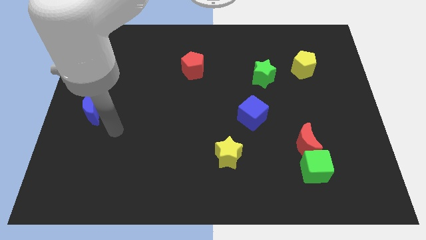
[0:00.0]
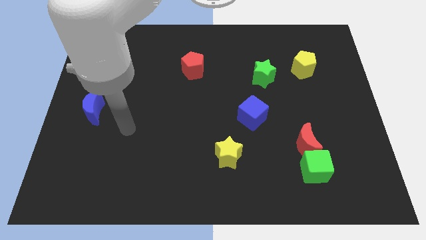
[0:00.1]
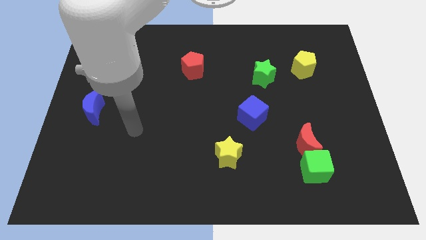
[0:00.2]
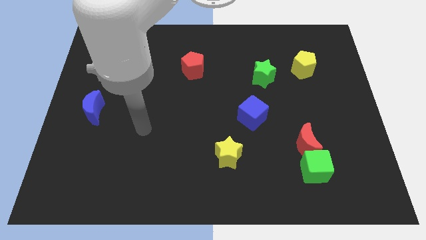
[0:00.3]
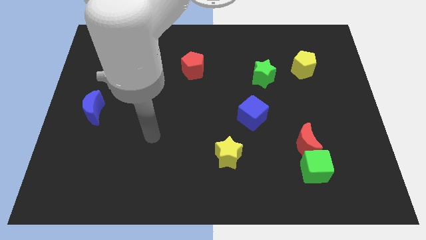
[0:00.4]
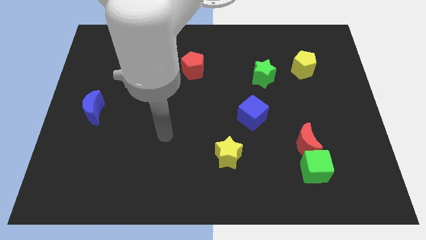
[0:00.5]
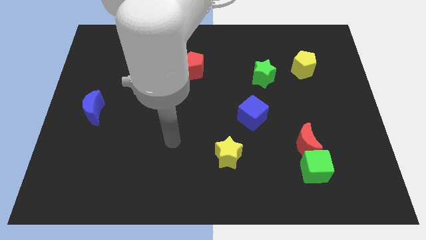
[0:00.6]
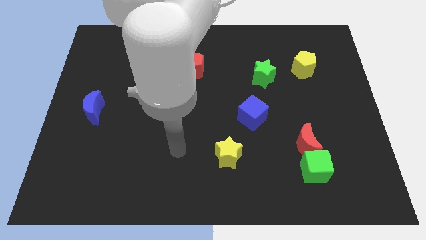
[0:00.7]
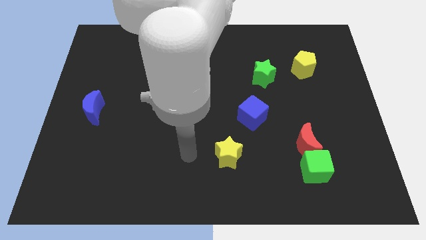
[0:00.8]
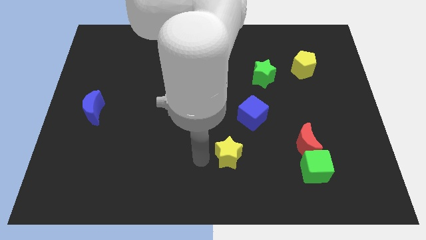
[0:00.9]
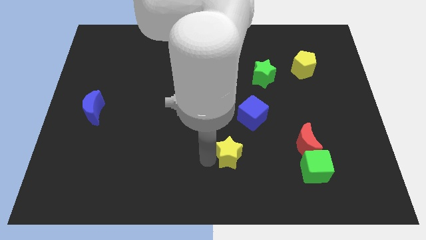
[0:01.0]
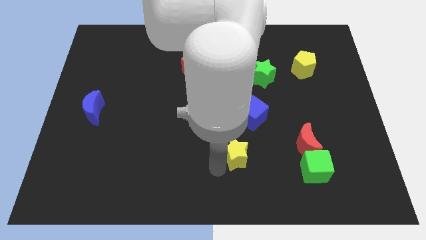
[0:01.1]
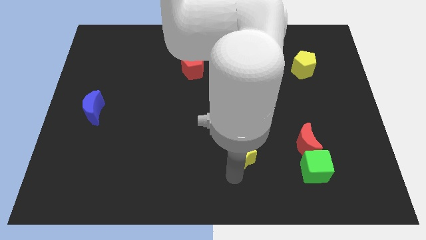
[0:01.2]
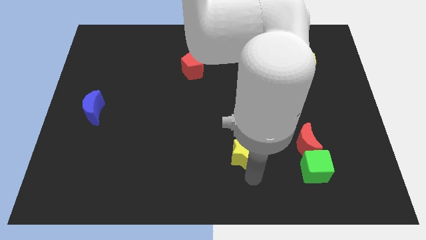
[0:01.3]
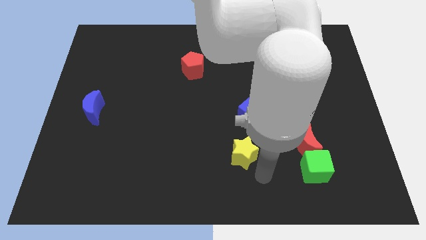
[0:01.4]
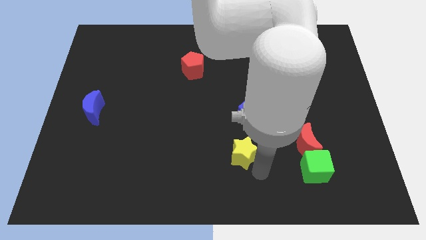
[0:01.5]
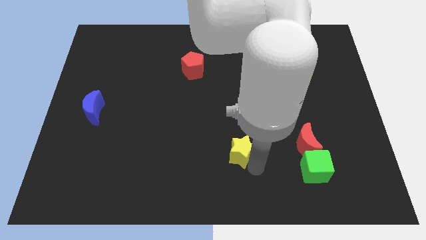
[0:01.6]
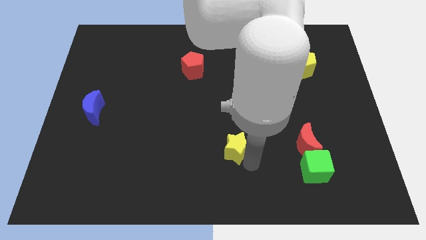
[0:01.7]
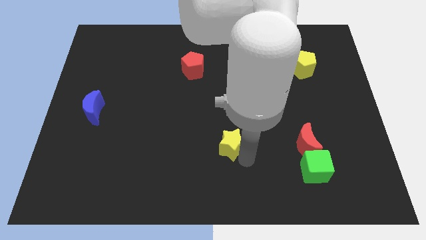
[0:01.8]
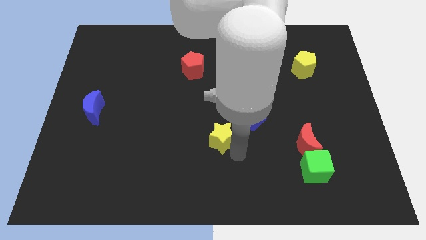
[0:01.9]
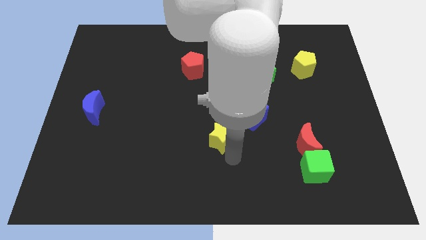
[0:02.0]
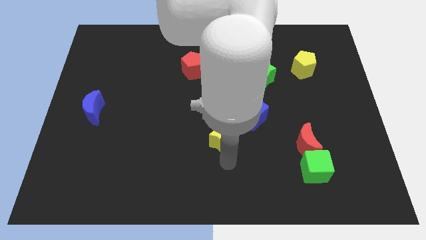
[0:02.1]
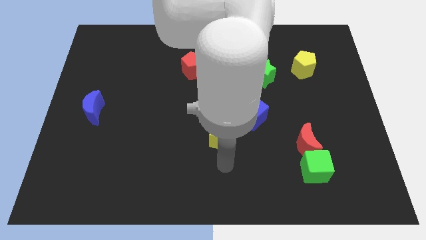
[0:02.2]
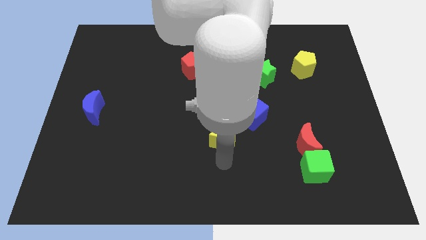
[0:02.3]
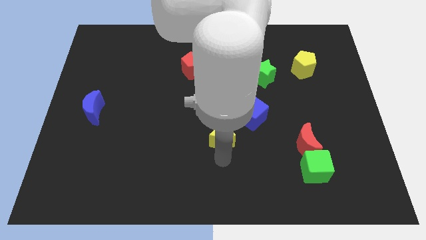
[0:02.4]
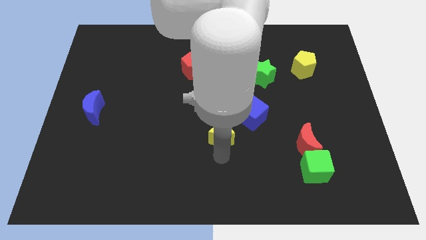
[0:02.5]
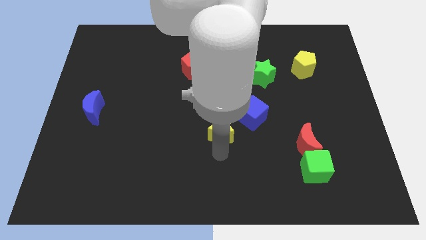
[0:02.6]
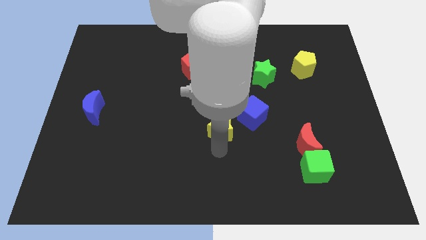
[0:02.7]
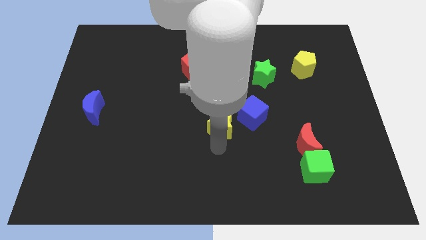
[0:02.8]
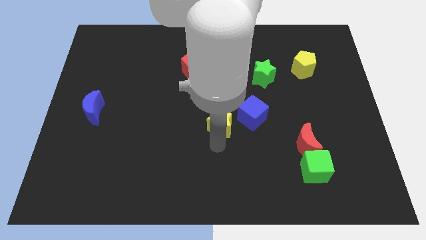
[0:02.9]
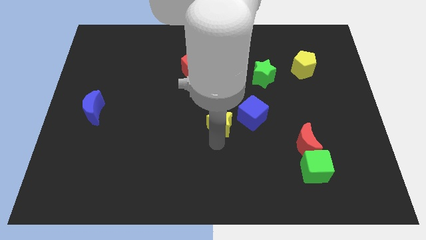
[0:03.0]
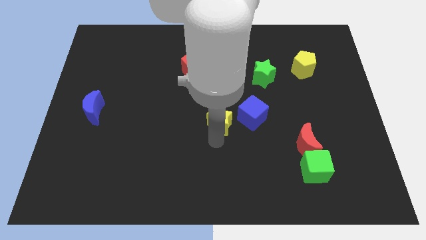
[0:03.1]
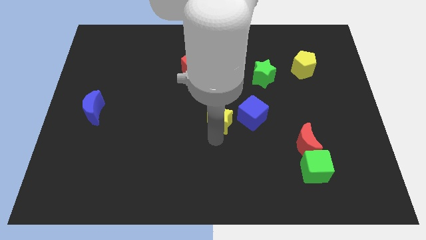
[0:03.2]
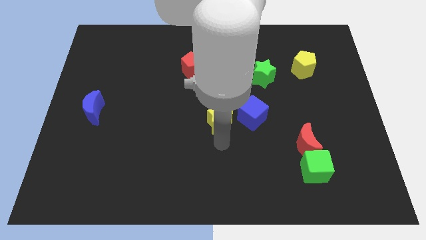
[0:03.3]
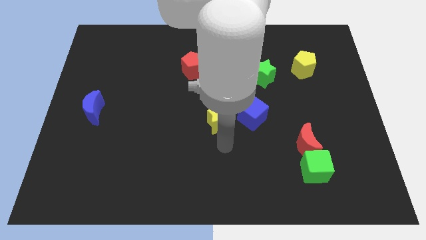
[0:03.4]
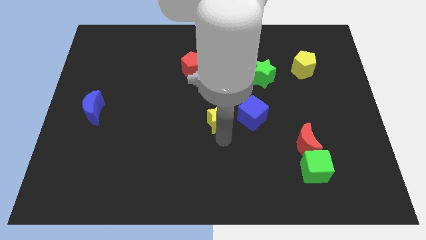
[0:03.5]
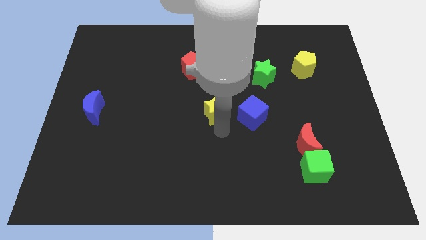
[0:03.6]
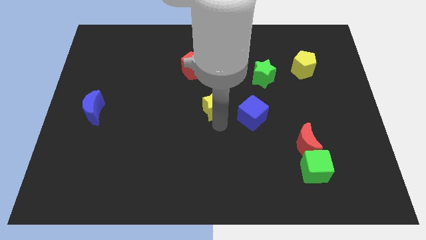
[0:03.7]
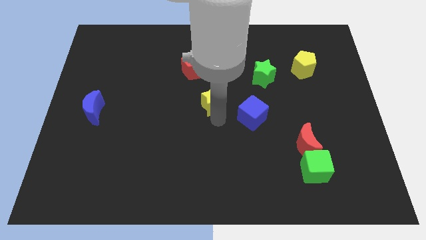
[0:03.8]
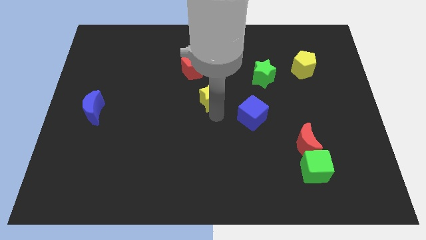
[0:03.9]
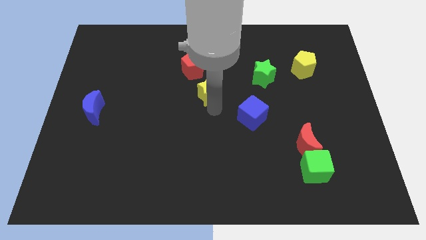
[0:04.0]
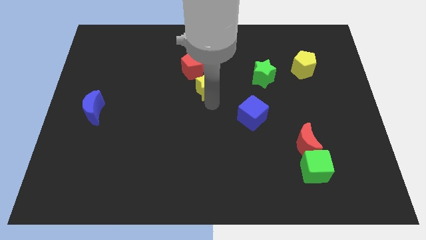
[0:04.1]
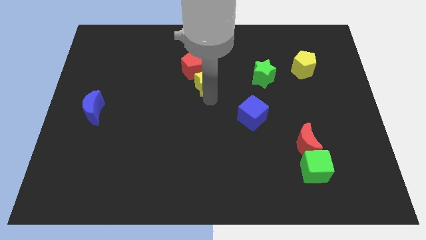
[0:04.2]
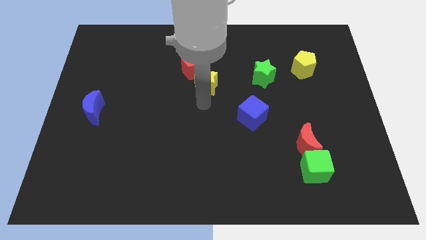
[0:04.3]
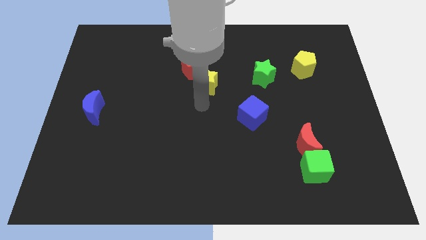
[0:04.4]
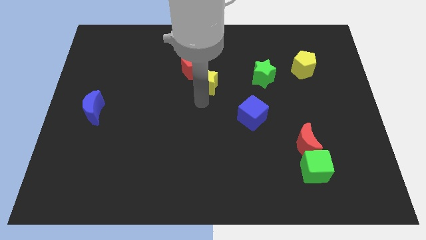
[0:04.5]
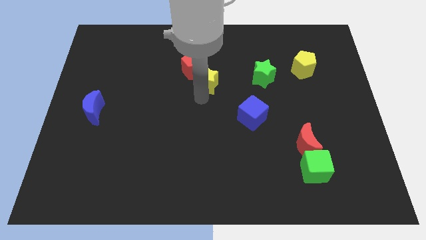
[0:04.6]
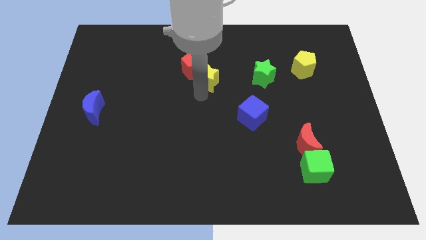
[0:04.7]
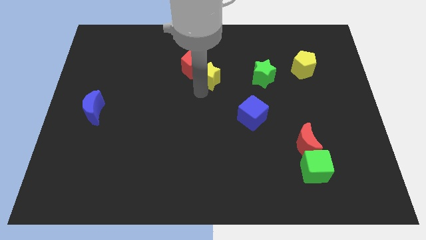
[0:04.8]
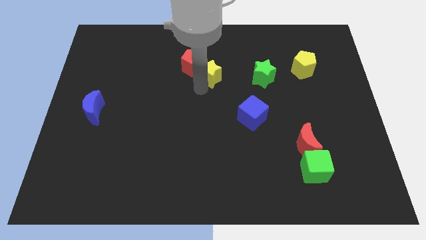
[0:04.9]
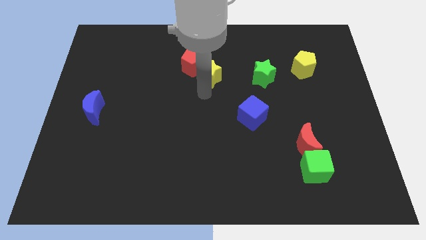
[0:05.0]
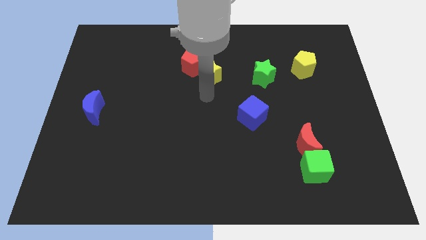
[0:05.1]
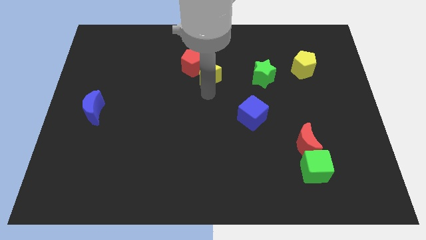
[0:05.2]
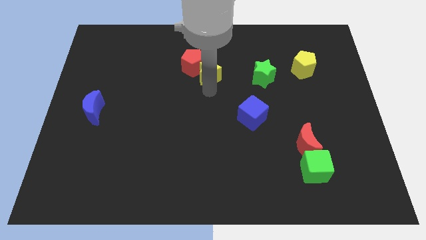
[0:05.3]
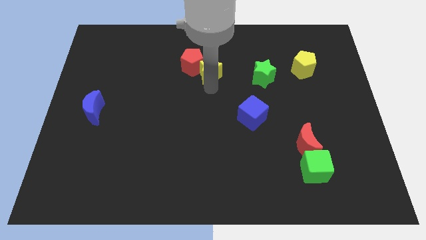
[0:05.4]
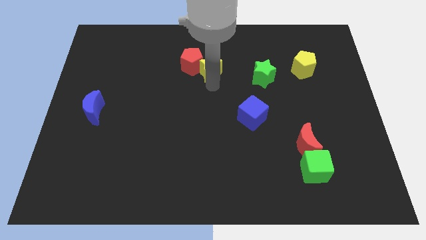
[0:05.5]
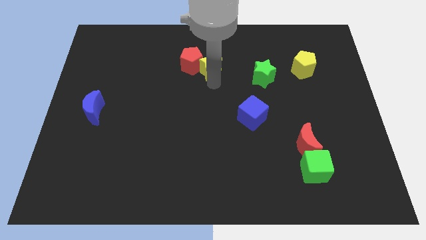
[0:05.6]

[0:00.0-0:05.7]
put the yellow star to the top right of the red pentagon

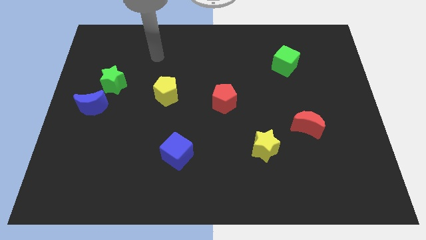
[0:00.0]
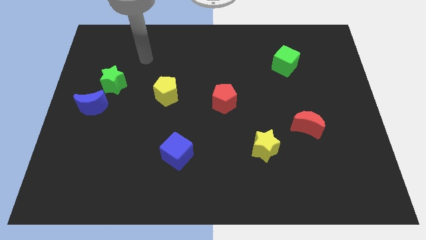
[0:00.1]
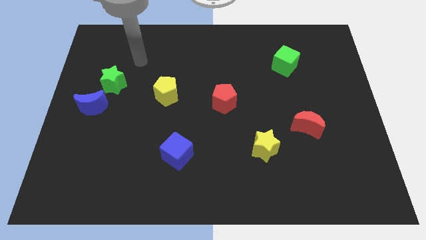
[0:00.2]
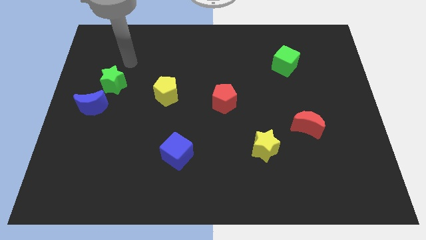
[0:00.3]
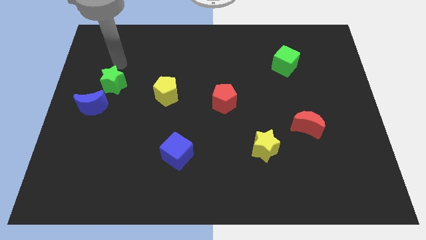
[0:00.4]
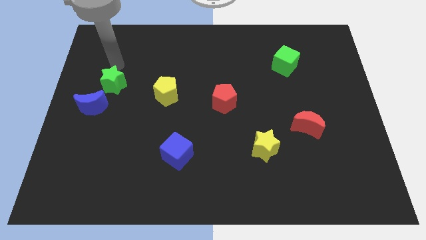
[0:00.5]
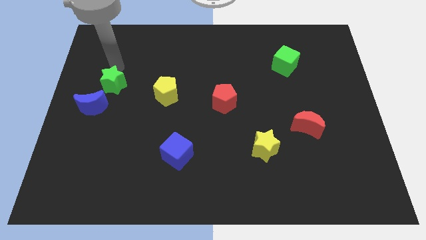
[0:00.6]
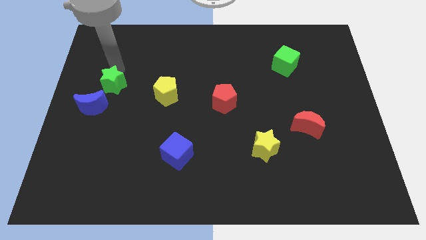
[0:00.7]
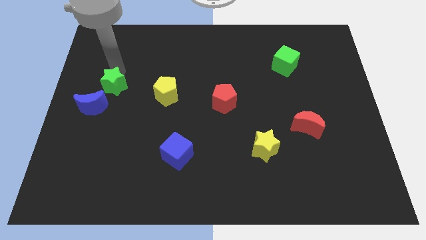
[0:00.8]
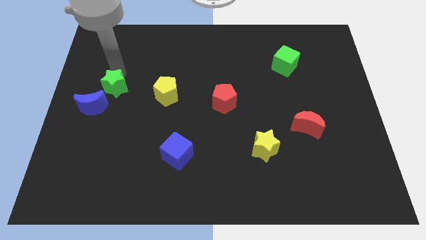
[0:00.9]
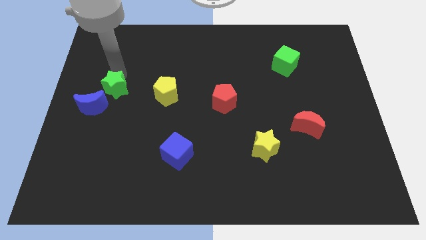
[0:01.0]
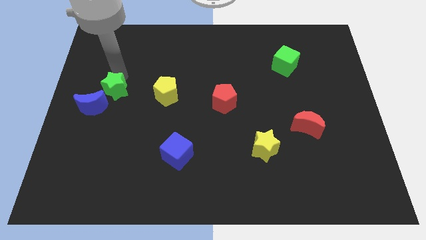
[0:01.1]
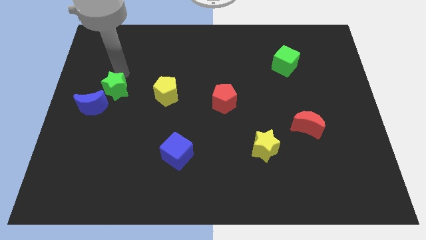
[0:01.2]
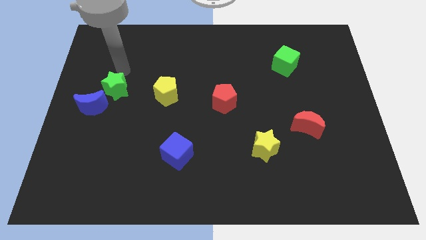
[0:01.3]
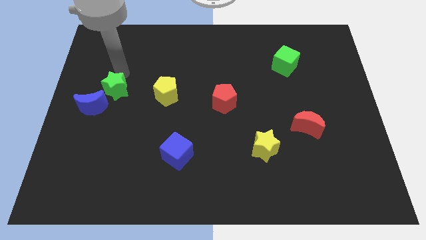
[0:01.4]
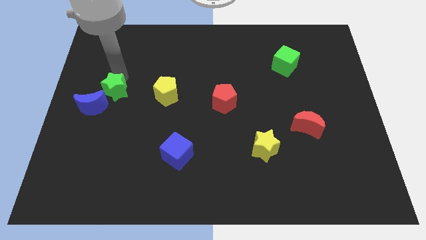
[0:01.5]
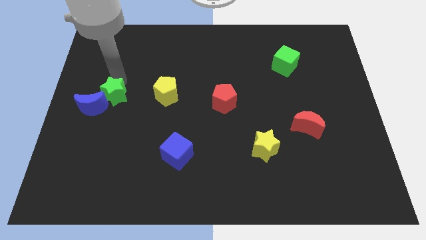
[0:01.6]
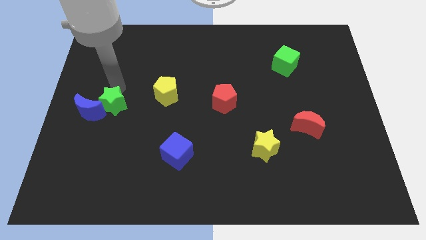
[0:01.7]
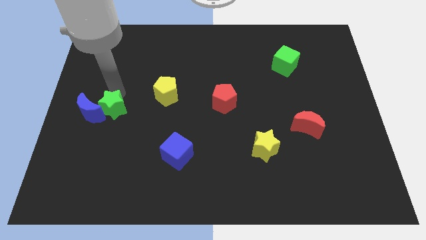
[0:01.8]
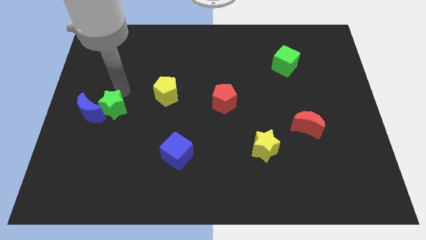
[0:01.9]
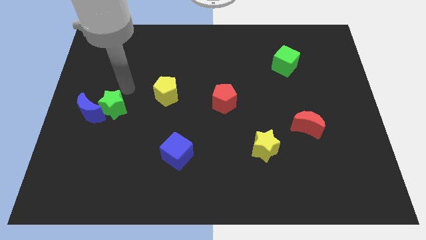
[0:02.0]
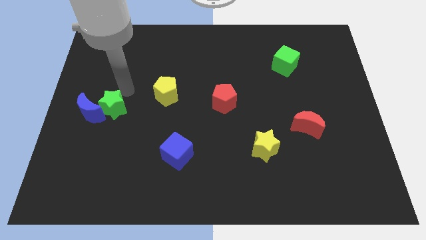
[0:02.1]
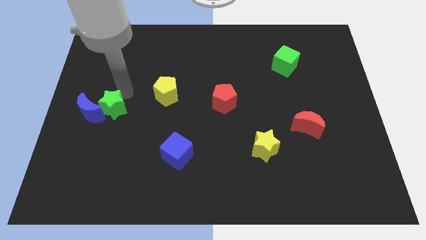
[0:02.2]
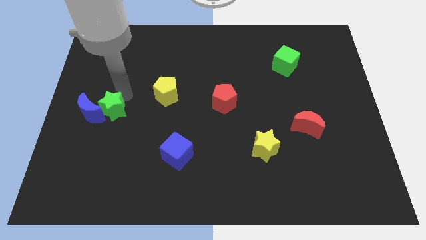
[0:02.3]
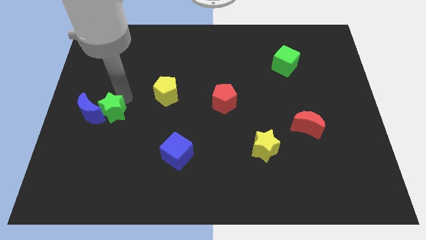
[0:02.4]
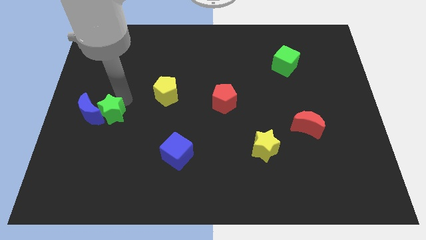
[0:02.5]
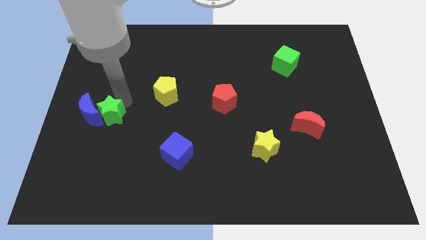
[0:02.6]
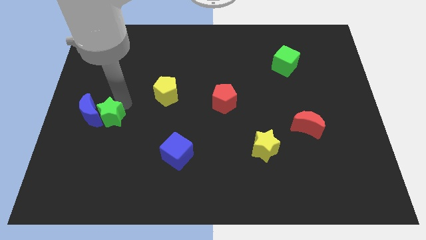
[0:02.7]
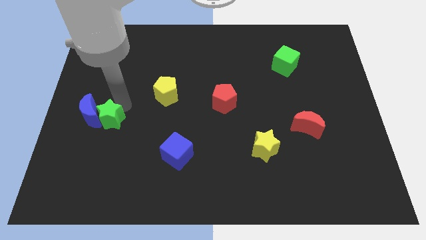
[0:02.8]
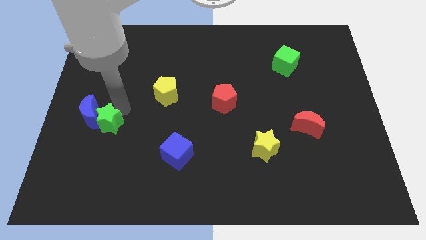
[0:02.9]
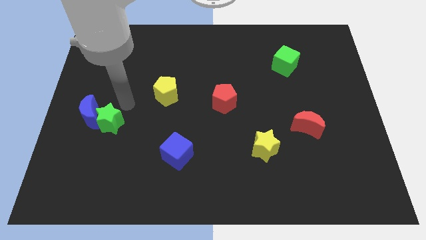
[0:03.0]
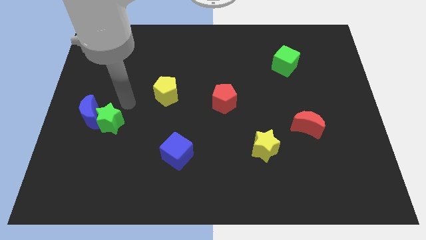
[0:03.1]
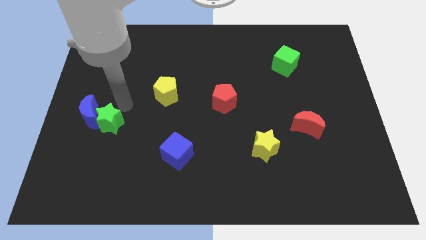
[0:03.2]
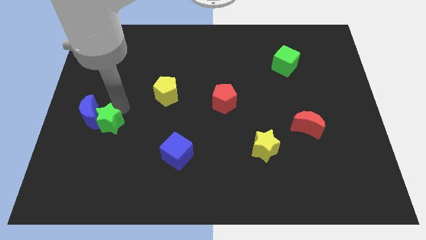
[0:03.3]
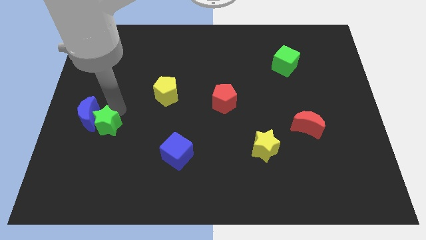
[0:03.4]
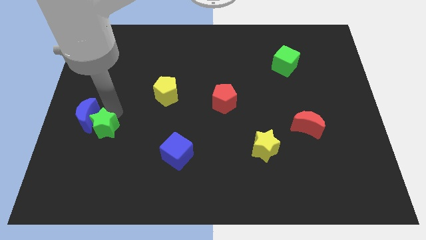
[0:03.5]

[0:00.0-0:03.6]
push the green star to the bottom of the blue moon
